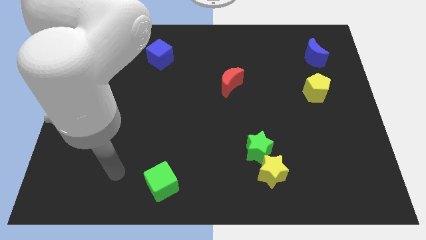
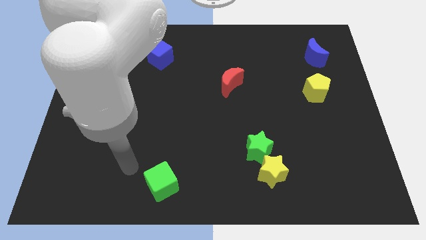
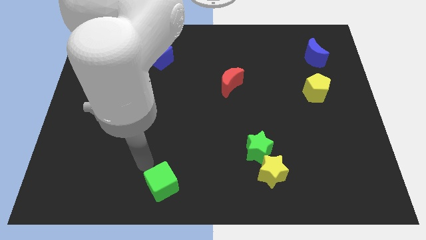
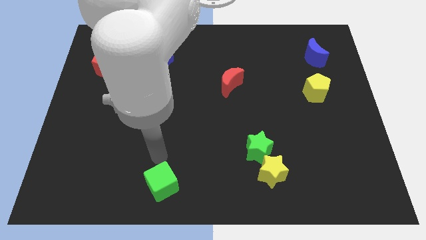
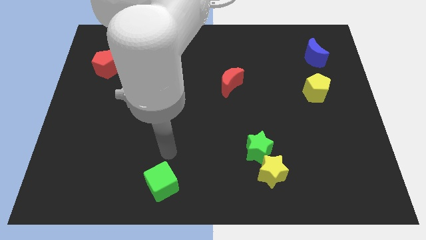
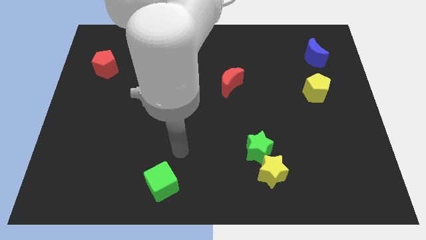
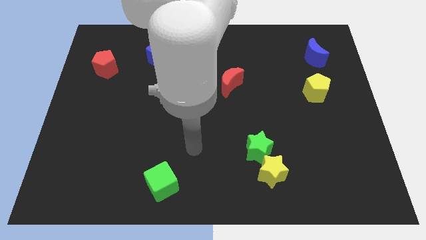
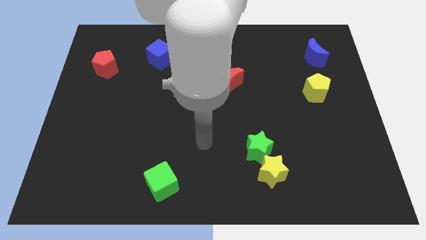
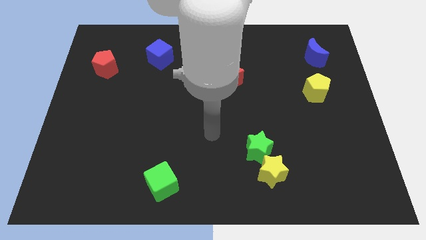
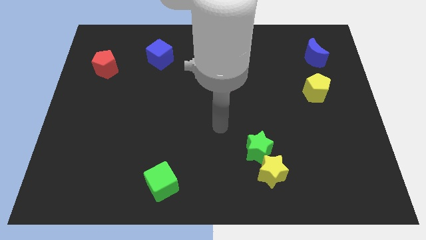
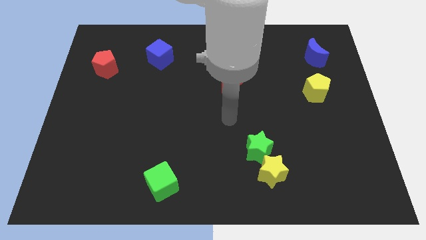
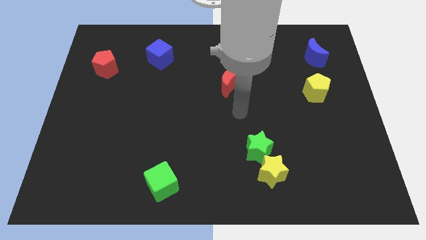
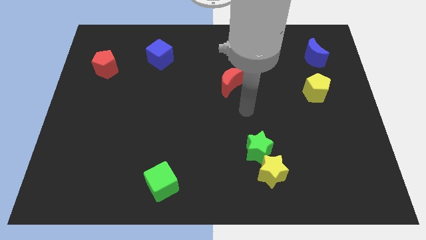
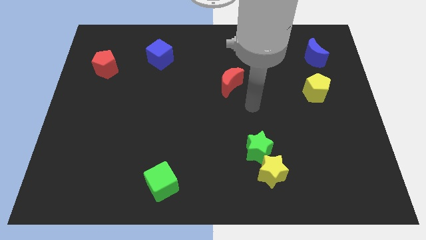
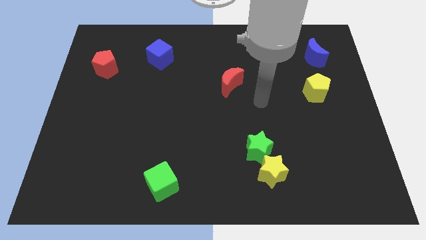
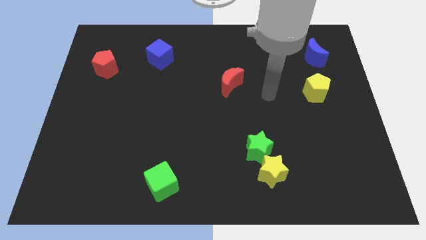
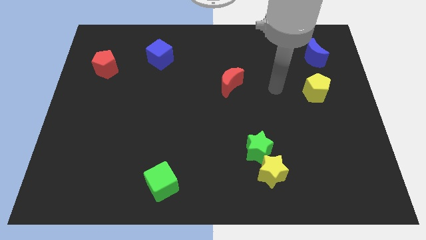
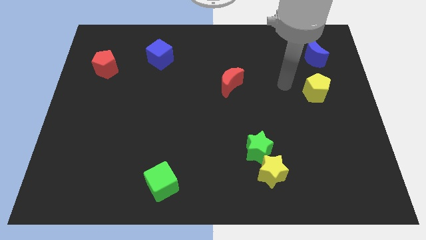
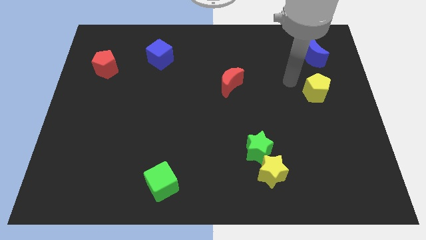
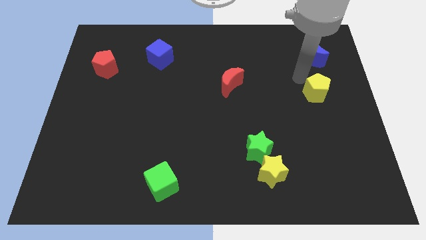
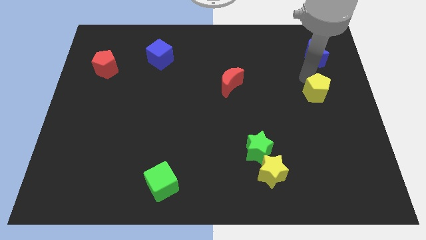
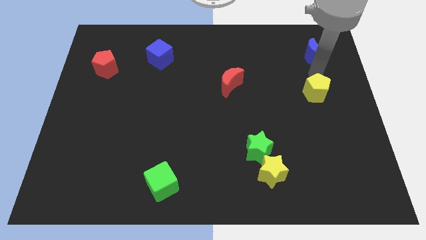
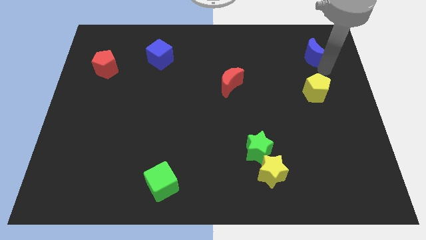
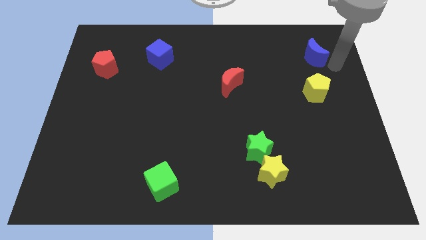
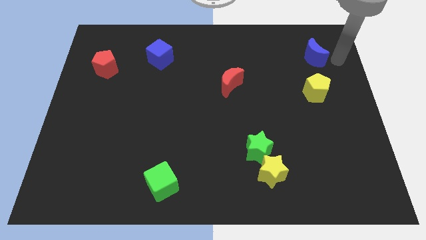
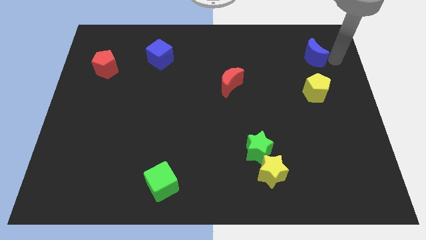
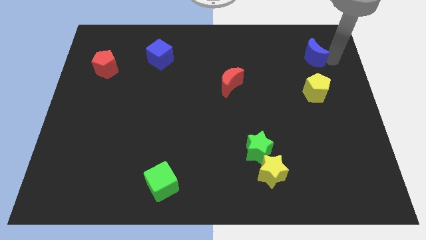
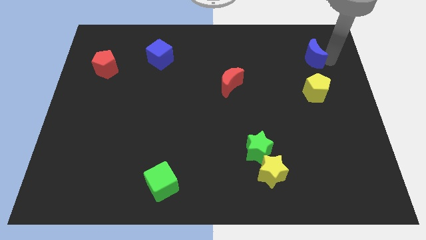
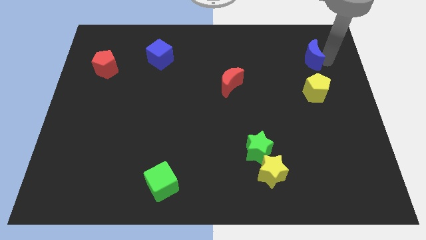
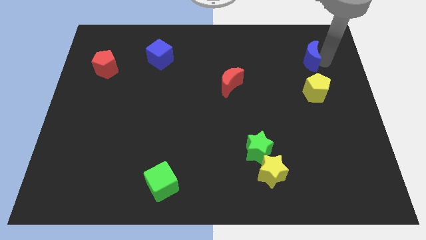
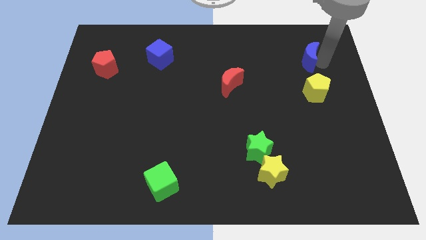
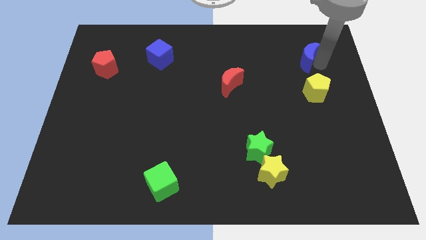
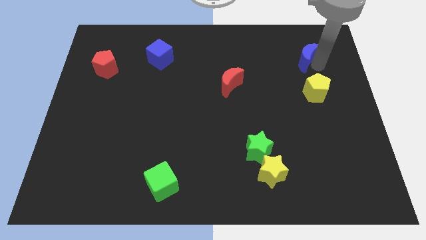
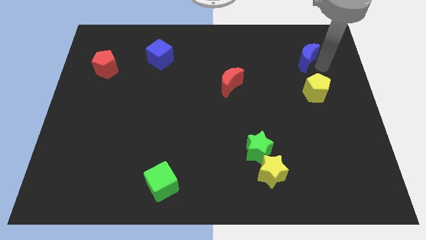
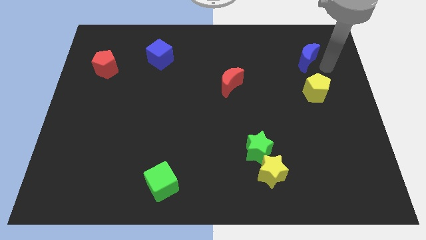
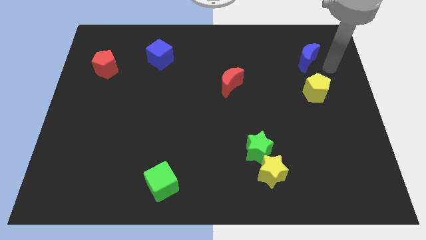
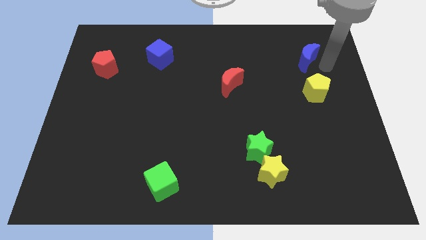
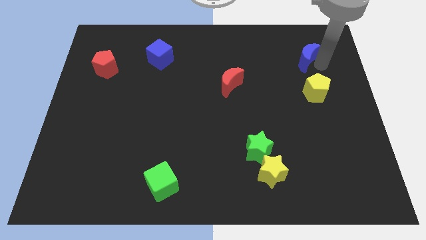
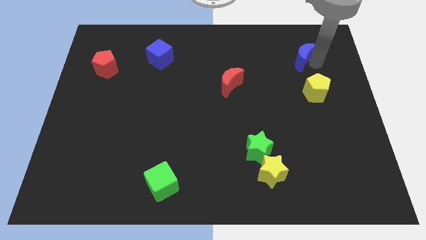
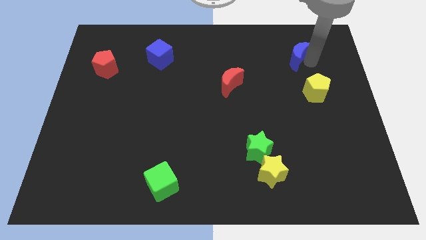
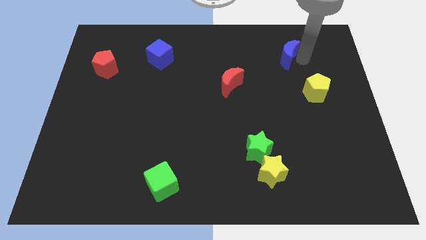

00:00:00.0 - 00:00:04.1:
push the blue moon slightly left

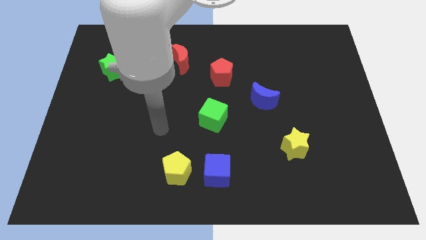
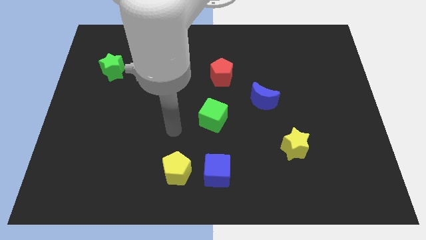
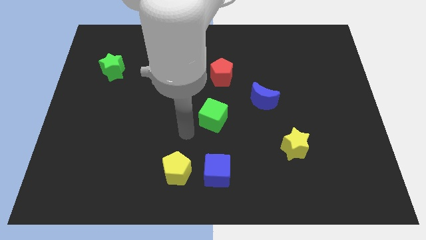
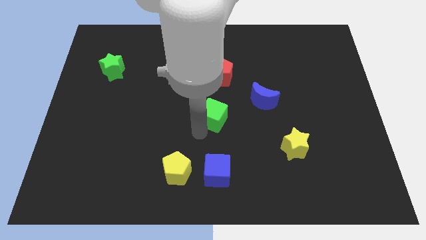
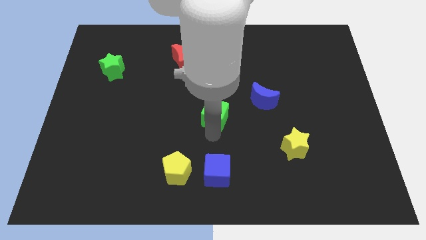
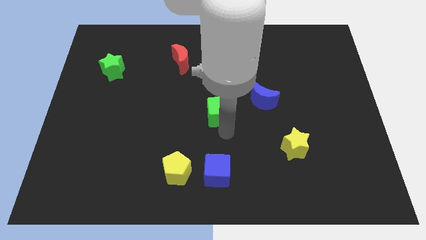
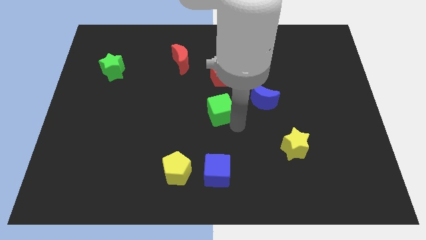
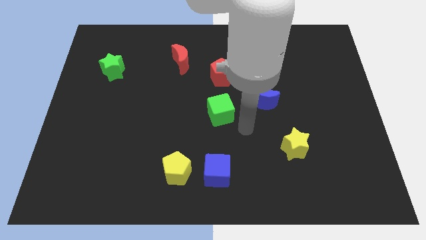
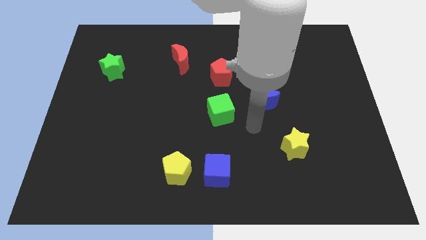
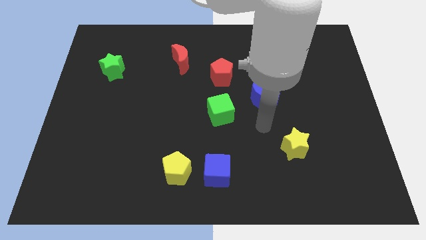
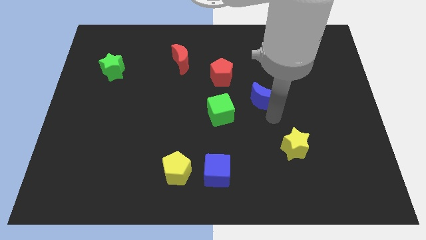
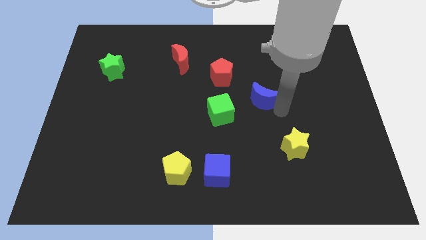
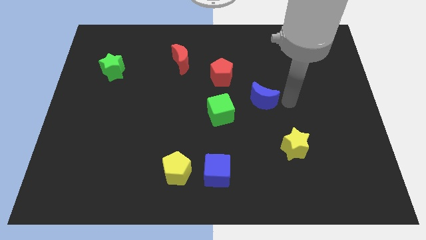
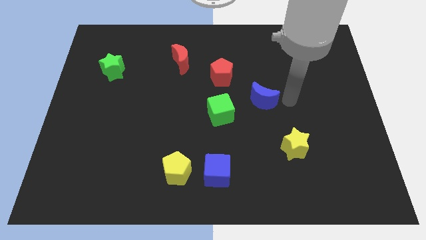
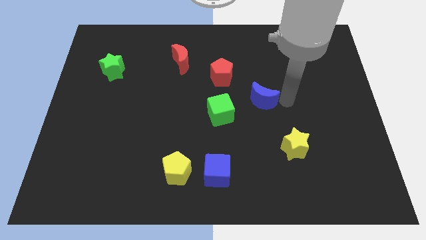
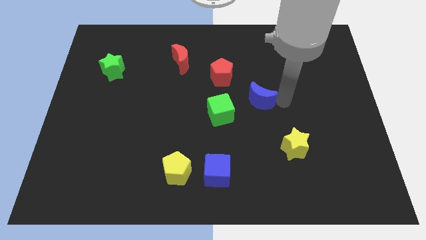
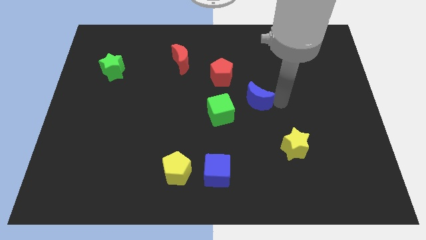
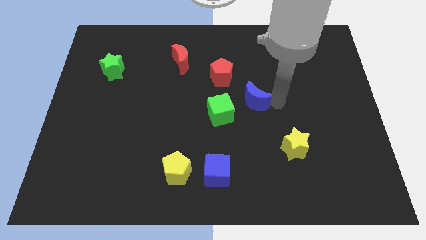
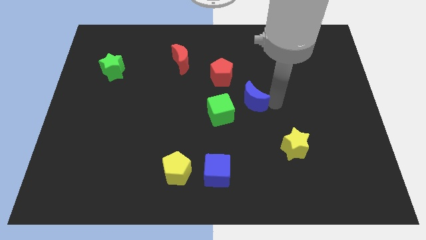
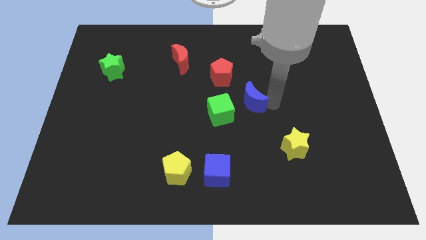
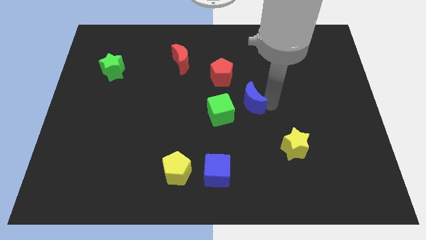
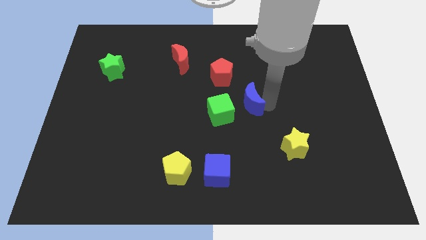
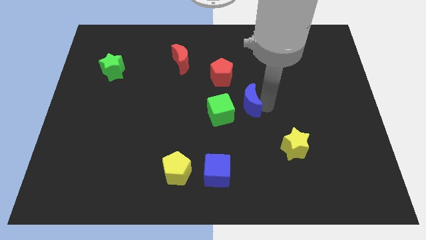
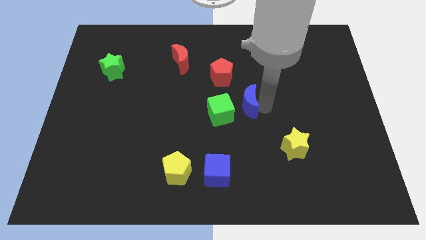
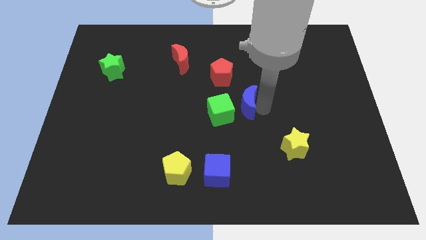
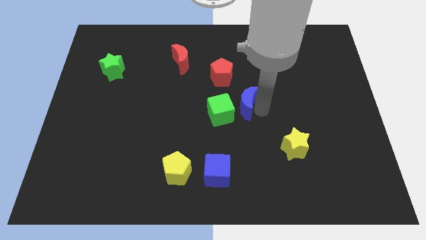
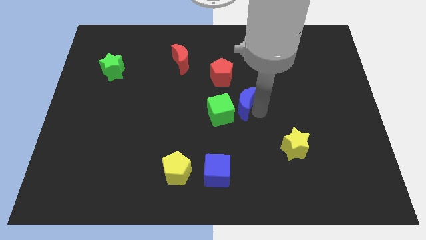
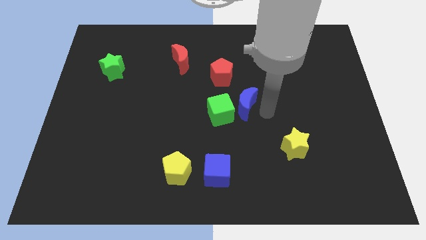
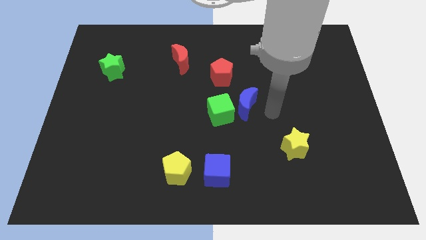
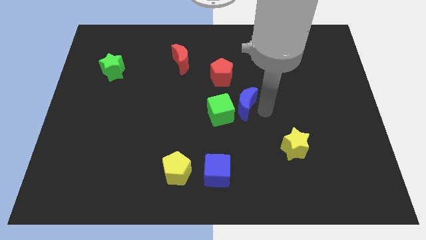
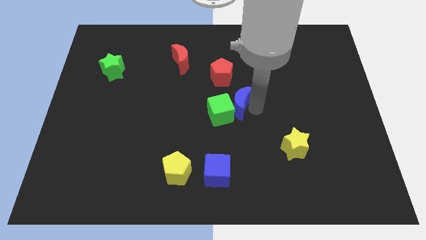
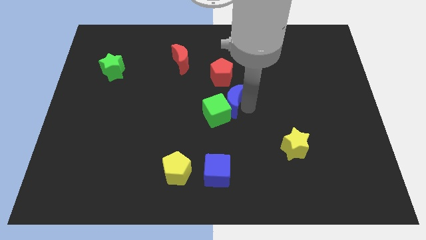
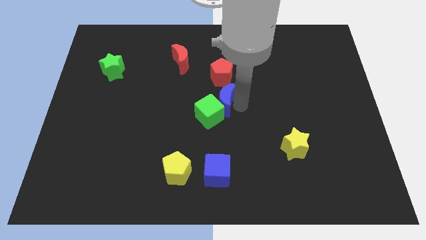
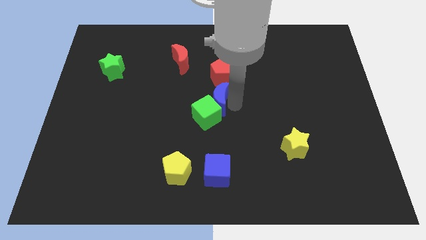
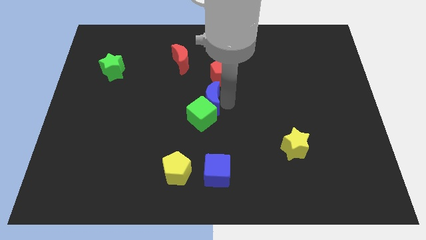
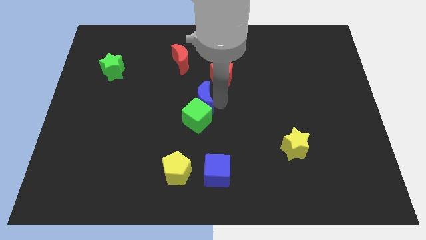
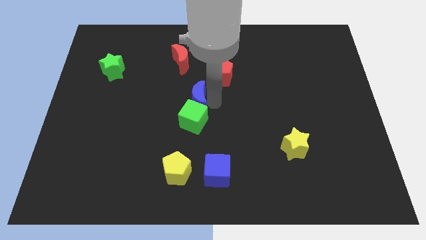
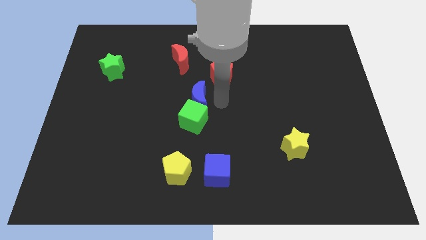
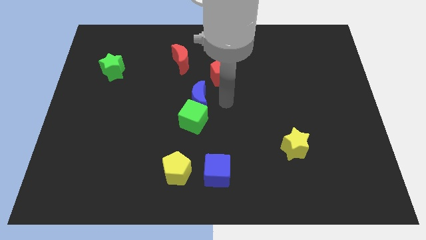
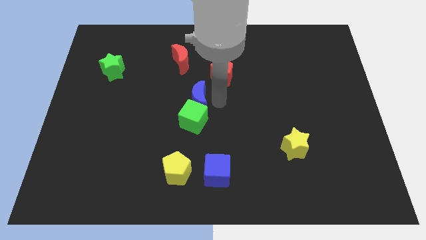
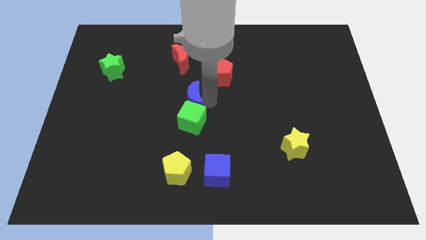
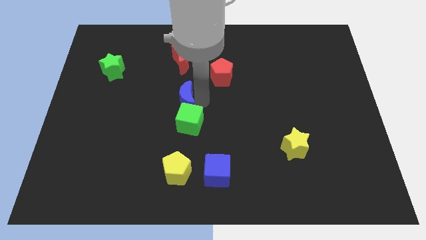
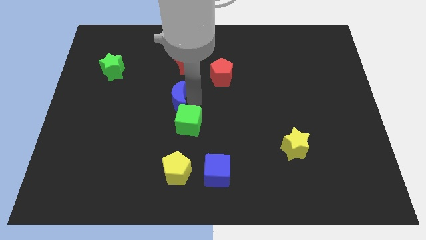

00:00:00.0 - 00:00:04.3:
move the blue moon left
